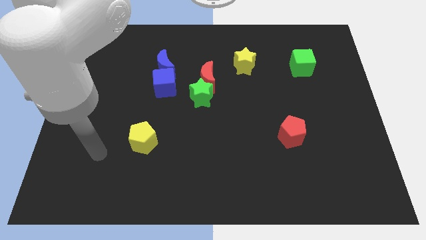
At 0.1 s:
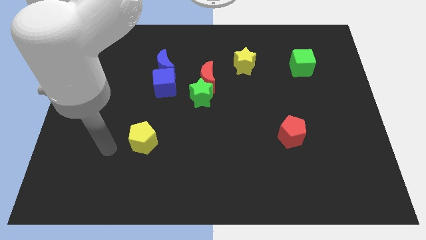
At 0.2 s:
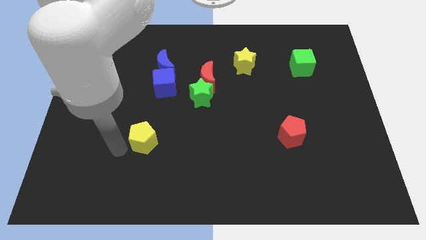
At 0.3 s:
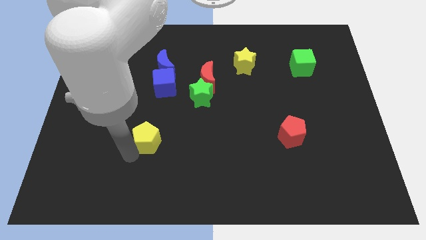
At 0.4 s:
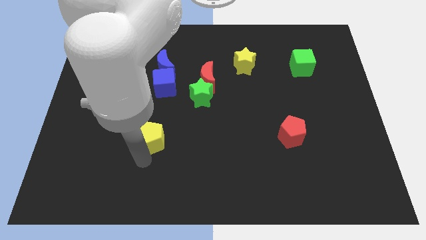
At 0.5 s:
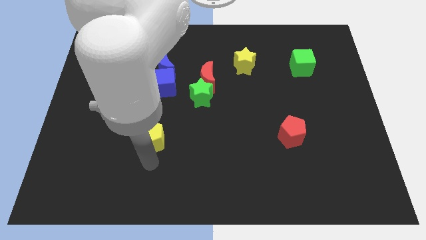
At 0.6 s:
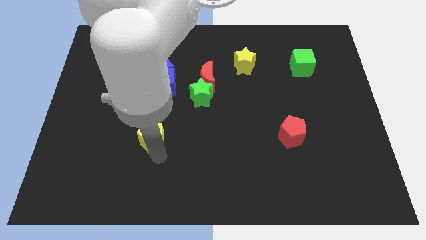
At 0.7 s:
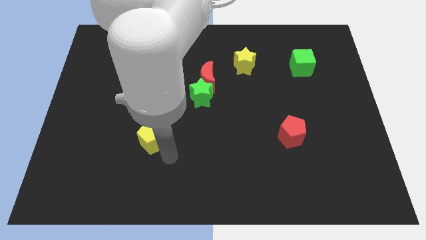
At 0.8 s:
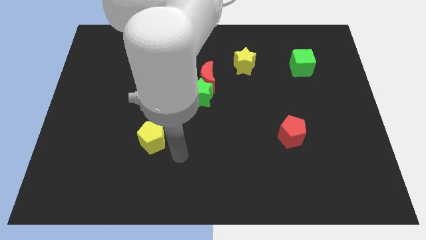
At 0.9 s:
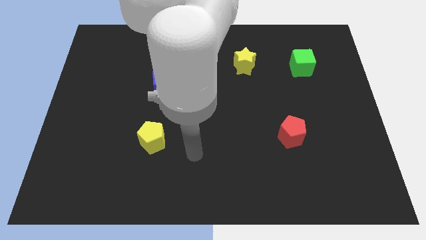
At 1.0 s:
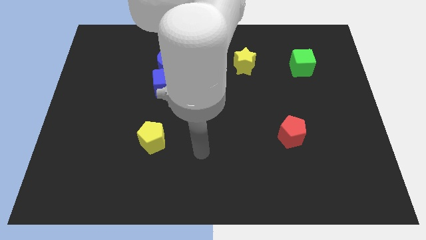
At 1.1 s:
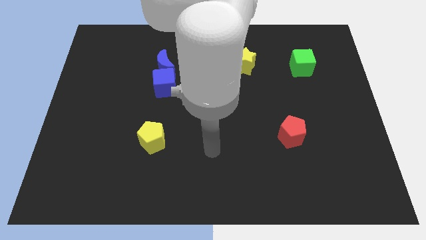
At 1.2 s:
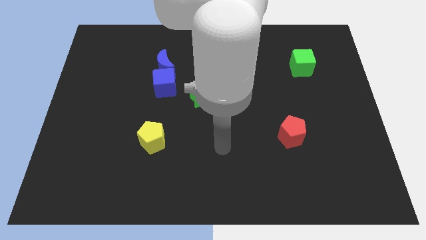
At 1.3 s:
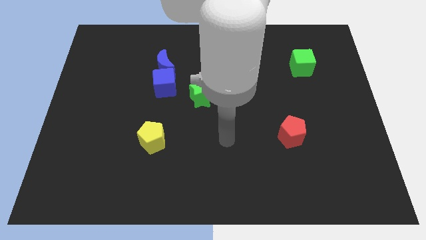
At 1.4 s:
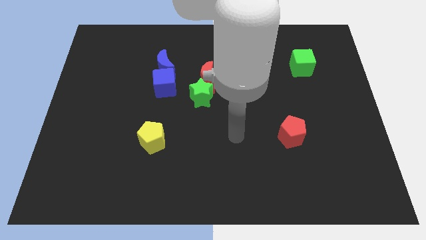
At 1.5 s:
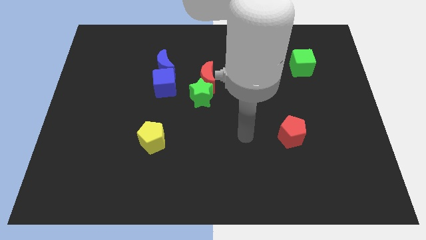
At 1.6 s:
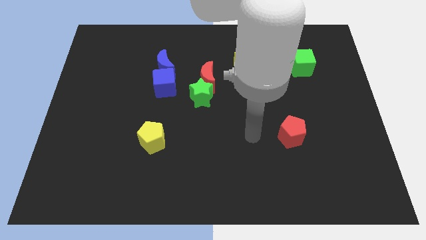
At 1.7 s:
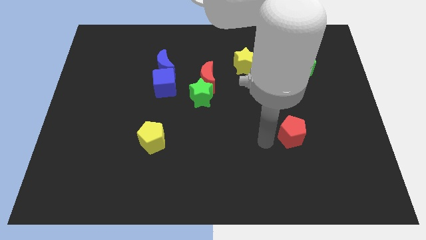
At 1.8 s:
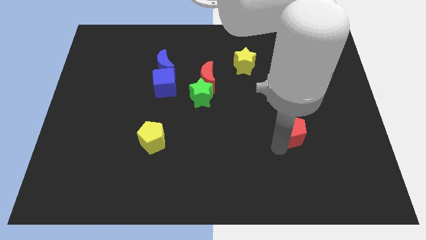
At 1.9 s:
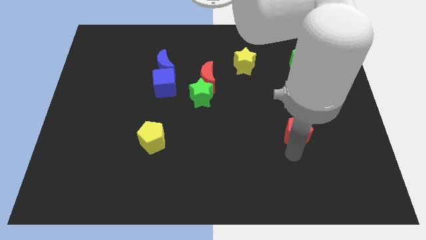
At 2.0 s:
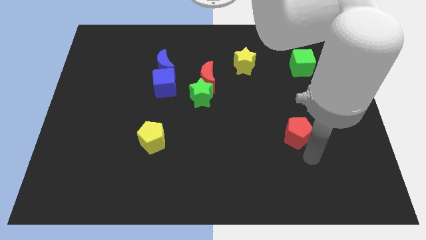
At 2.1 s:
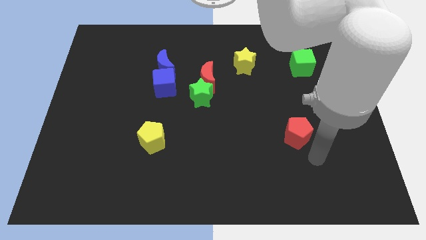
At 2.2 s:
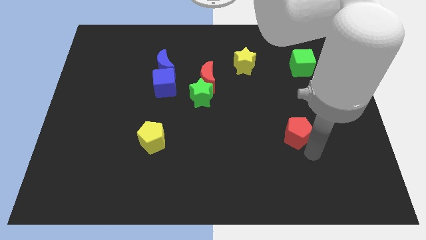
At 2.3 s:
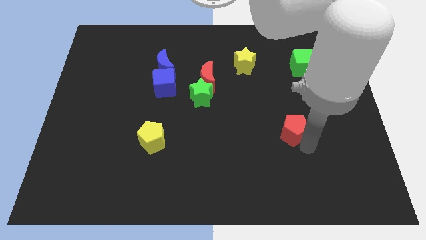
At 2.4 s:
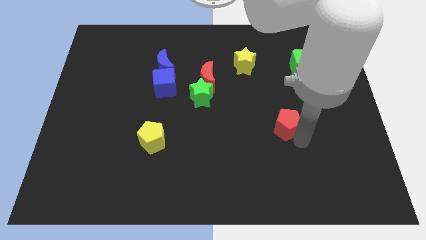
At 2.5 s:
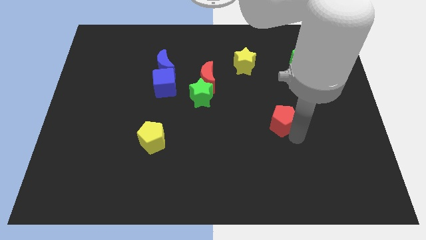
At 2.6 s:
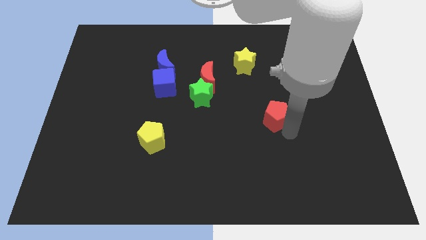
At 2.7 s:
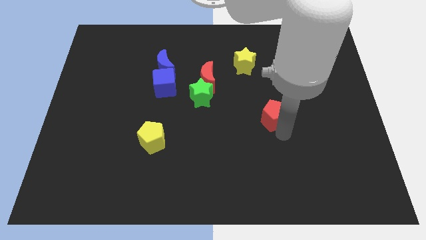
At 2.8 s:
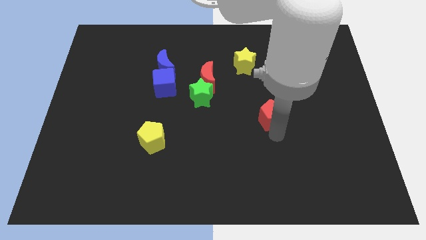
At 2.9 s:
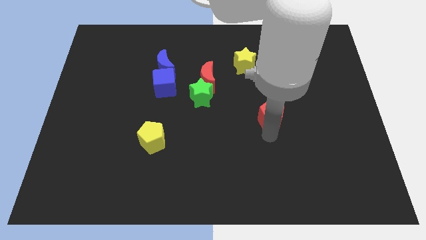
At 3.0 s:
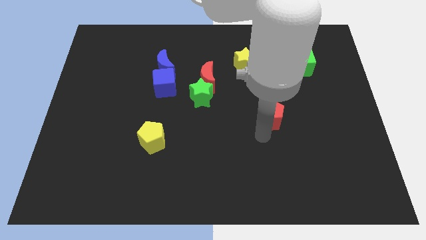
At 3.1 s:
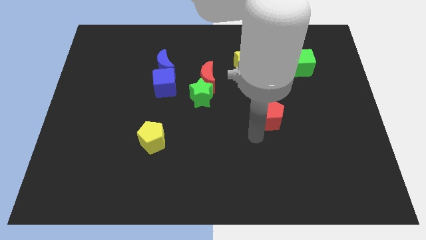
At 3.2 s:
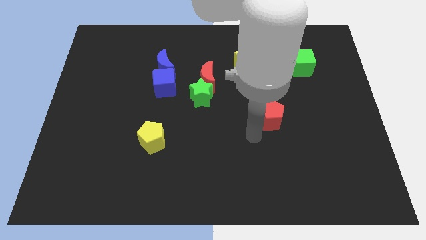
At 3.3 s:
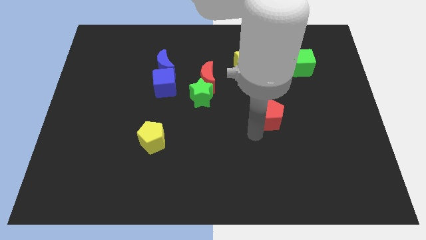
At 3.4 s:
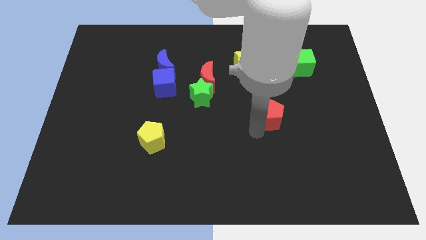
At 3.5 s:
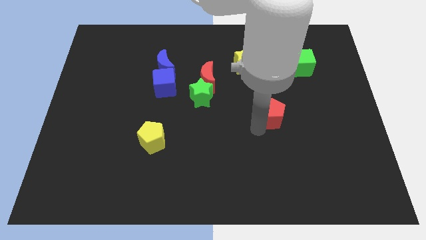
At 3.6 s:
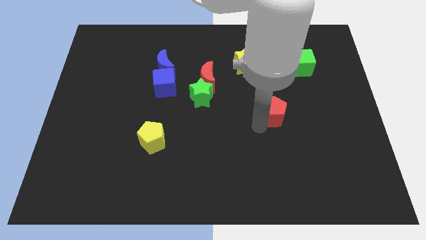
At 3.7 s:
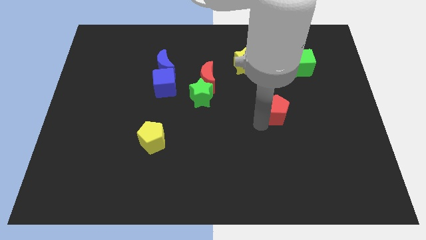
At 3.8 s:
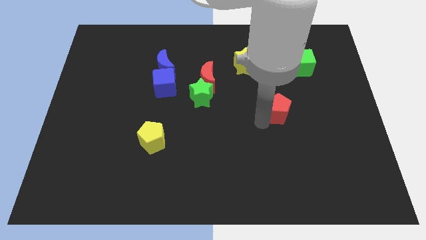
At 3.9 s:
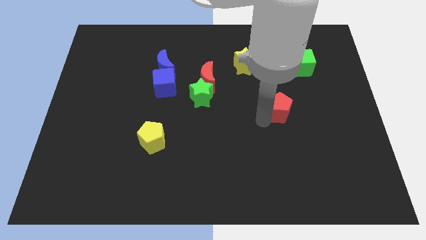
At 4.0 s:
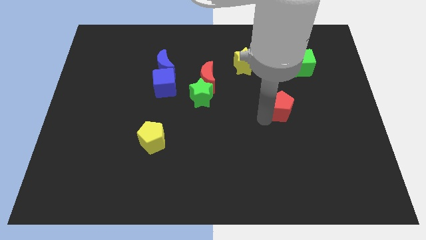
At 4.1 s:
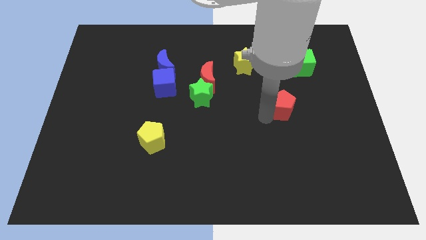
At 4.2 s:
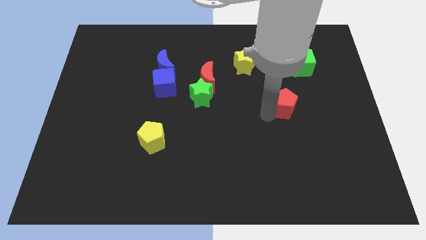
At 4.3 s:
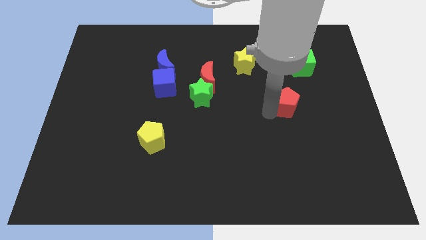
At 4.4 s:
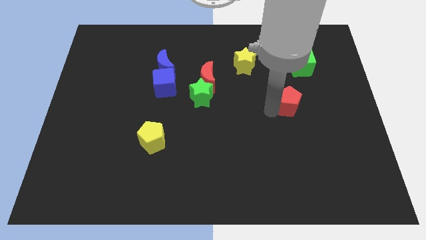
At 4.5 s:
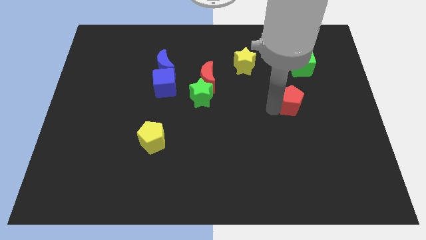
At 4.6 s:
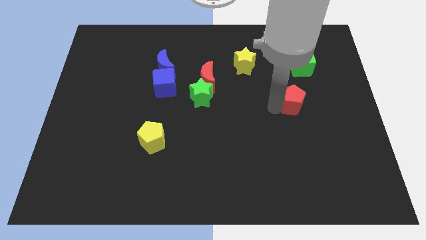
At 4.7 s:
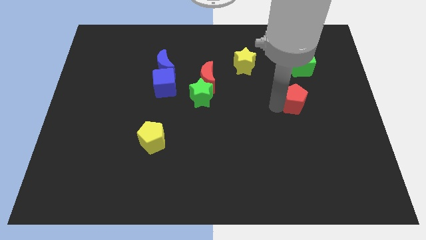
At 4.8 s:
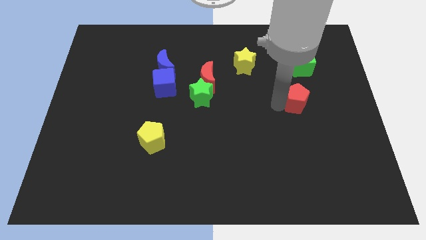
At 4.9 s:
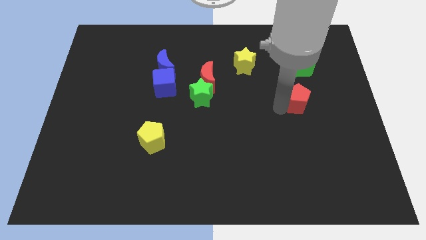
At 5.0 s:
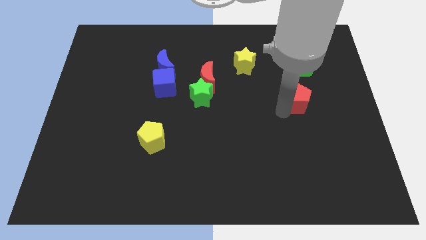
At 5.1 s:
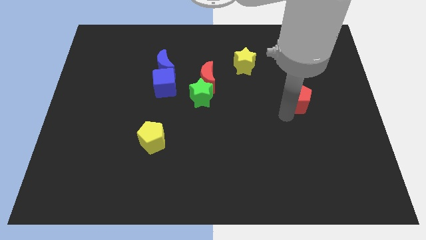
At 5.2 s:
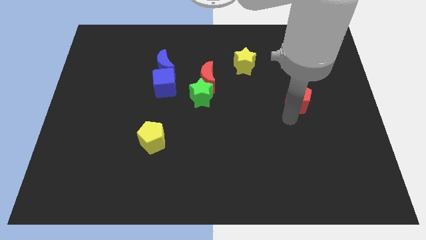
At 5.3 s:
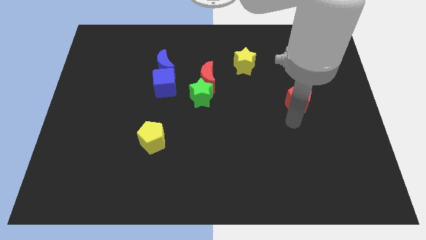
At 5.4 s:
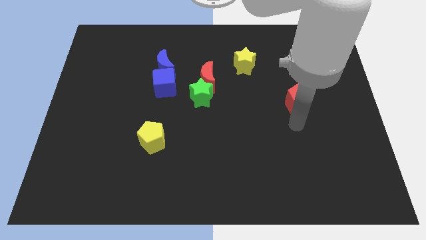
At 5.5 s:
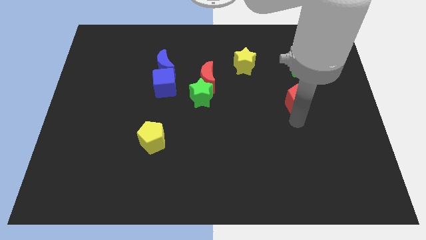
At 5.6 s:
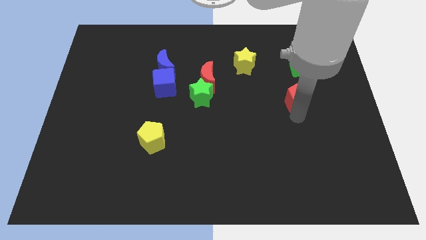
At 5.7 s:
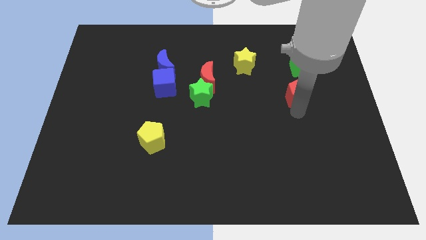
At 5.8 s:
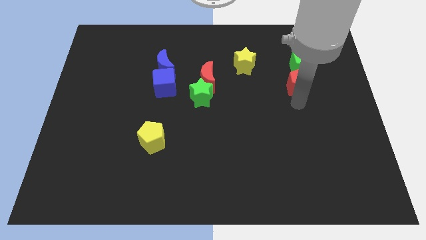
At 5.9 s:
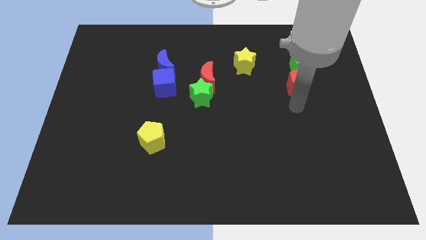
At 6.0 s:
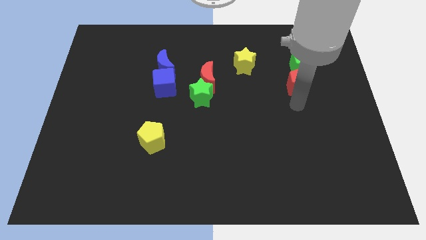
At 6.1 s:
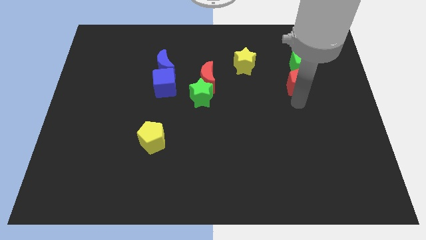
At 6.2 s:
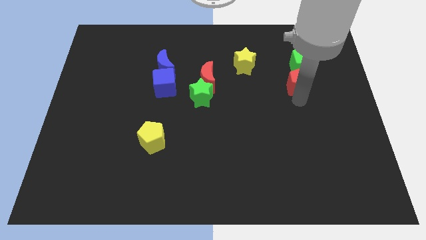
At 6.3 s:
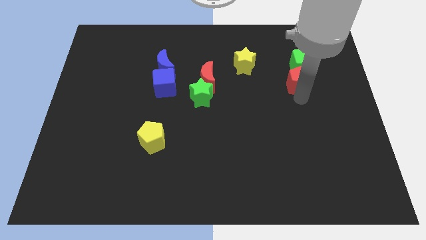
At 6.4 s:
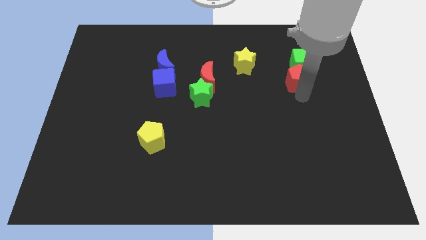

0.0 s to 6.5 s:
push the red pentagon to the green cube
